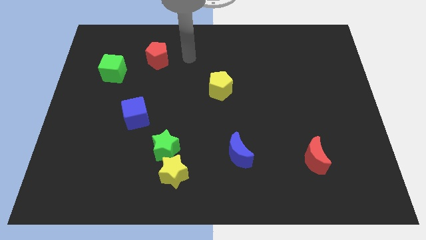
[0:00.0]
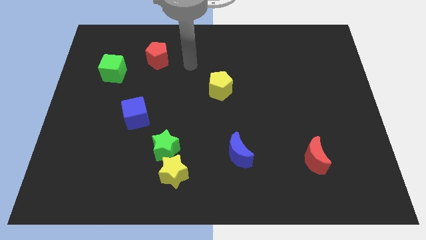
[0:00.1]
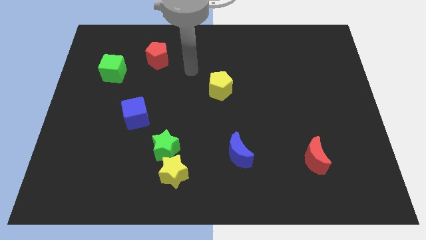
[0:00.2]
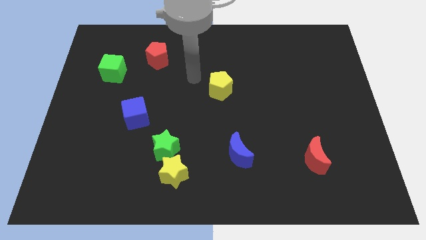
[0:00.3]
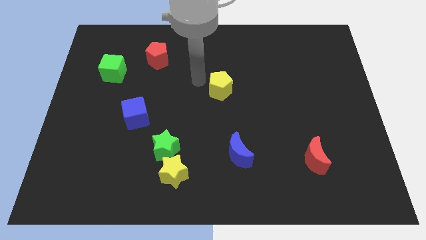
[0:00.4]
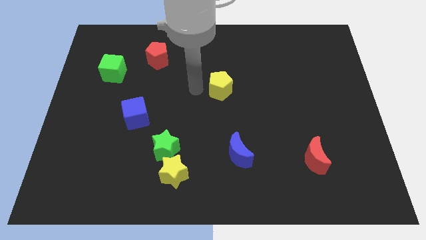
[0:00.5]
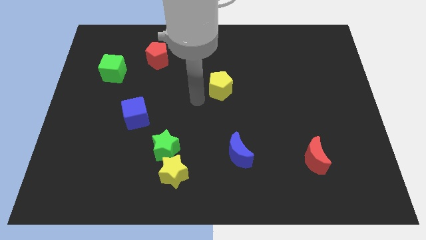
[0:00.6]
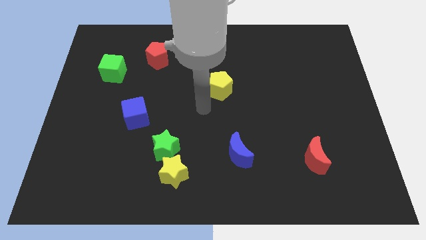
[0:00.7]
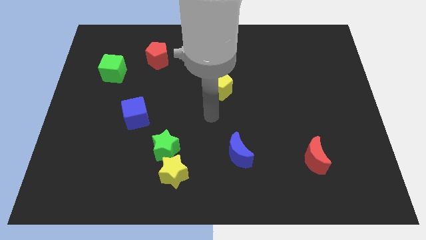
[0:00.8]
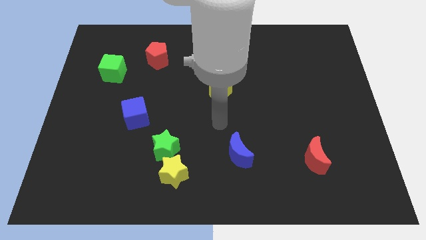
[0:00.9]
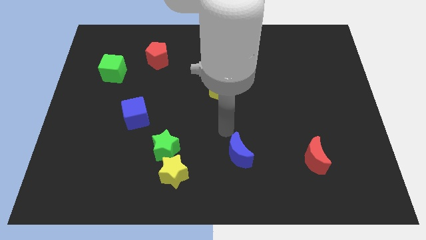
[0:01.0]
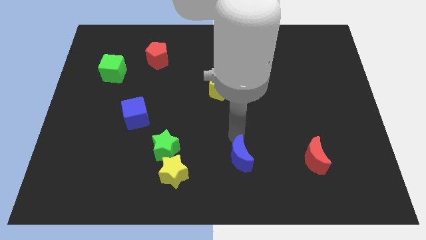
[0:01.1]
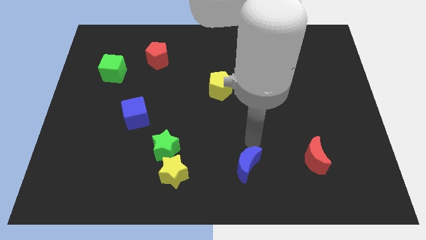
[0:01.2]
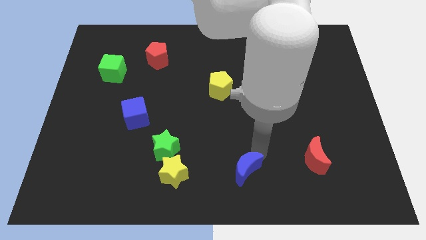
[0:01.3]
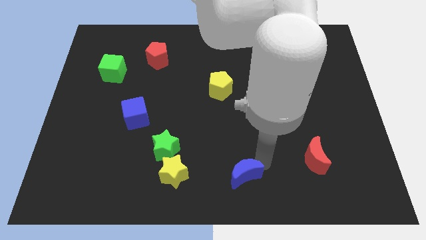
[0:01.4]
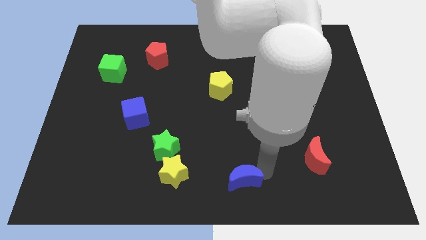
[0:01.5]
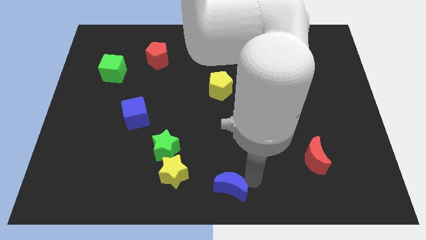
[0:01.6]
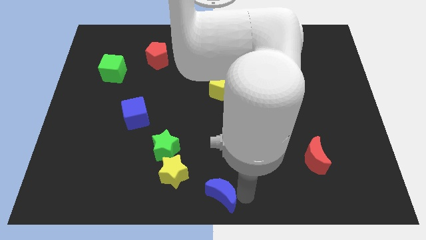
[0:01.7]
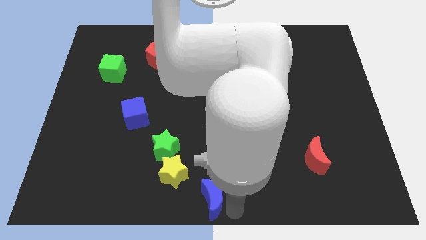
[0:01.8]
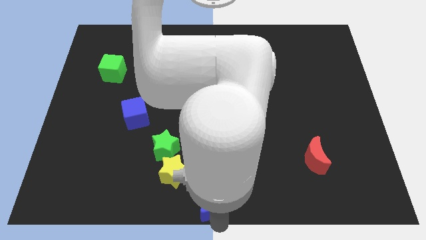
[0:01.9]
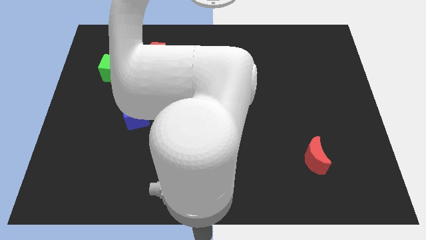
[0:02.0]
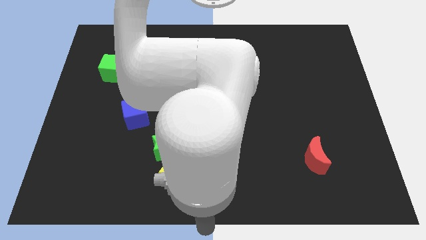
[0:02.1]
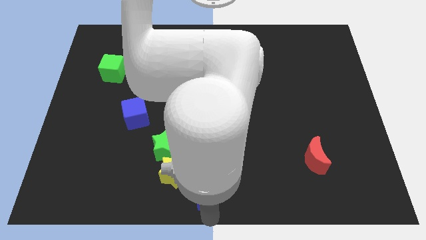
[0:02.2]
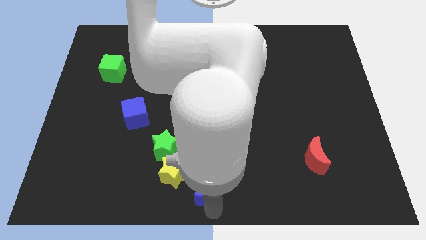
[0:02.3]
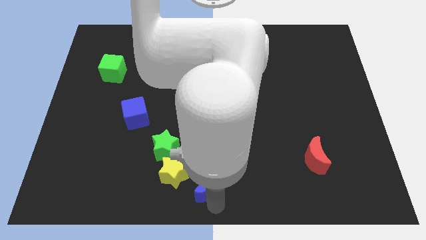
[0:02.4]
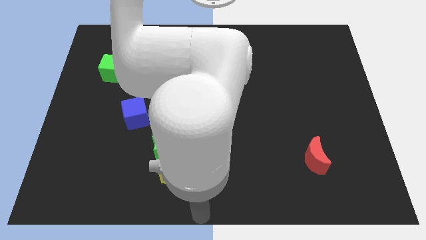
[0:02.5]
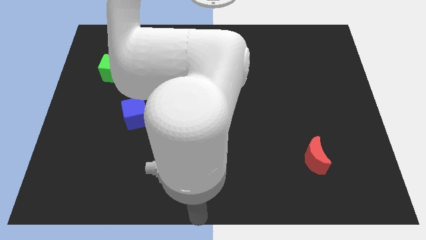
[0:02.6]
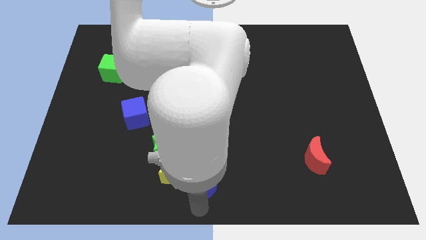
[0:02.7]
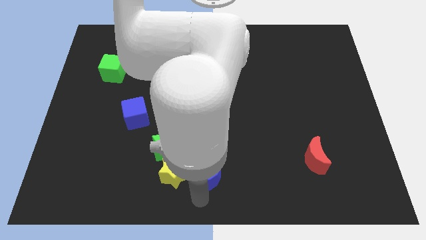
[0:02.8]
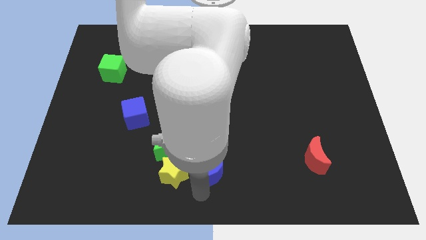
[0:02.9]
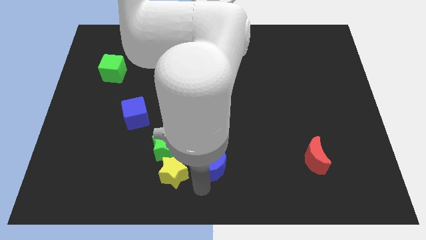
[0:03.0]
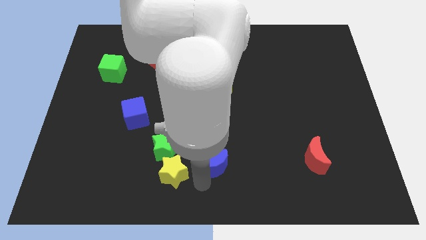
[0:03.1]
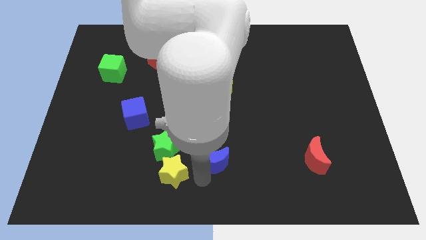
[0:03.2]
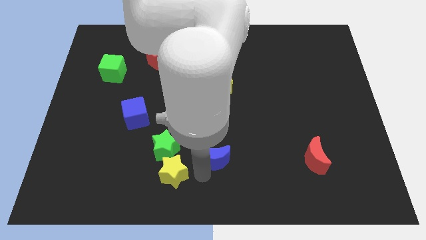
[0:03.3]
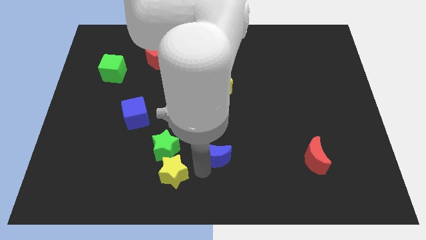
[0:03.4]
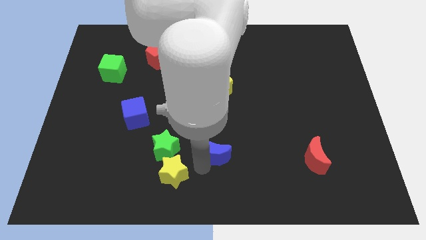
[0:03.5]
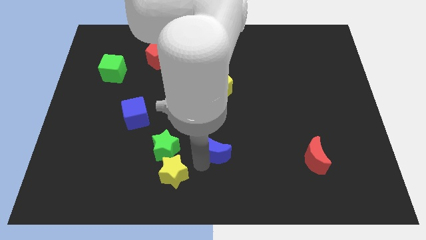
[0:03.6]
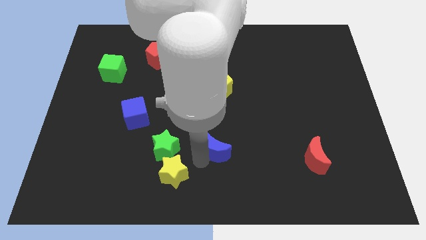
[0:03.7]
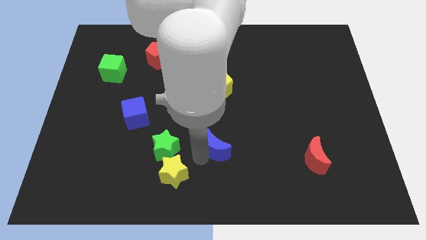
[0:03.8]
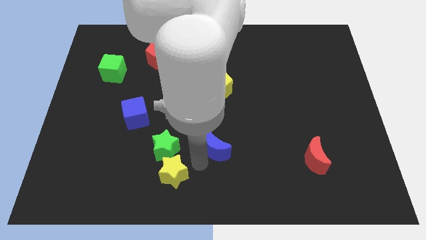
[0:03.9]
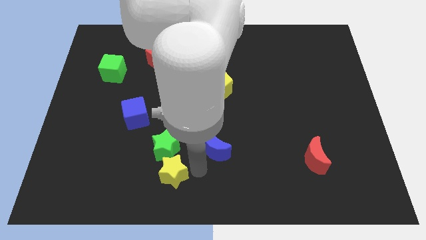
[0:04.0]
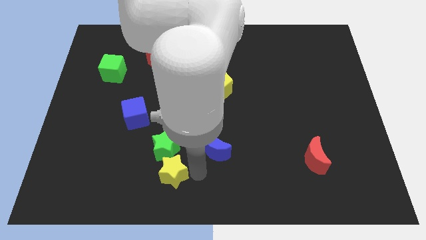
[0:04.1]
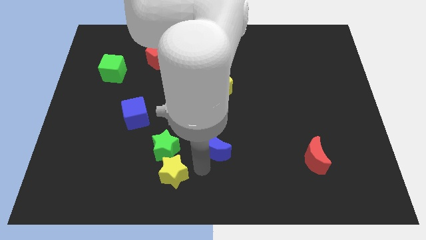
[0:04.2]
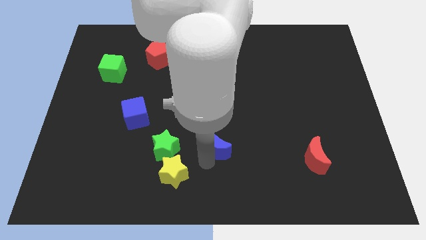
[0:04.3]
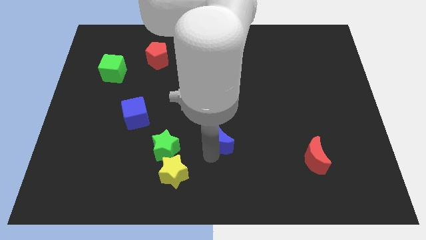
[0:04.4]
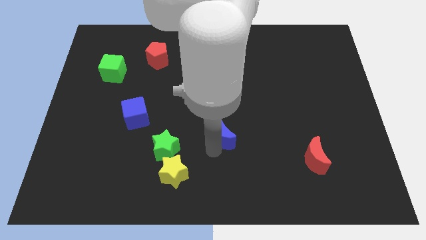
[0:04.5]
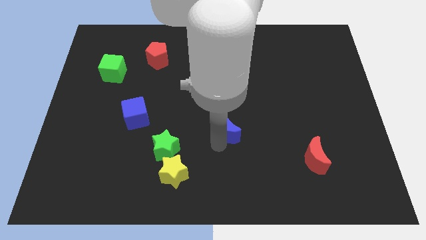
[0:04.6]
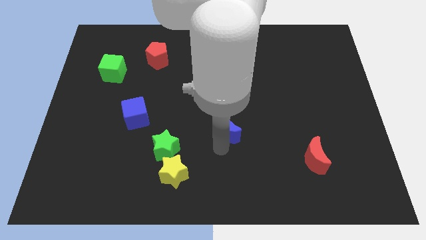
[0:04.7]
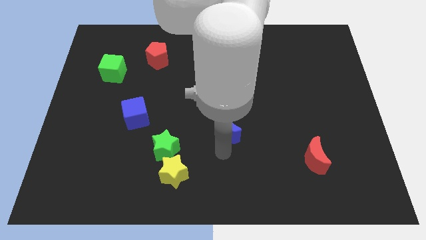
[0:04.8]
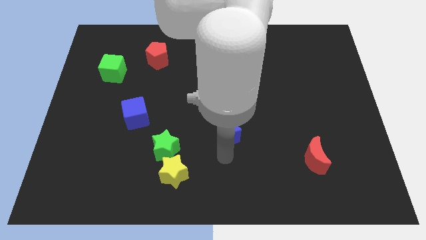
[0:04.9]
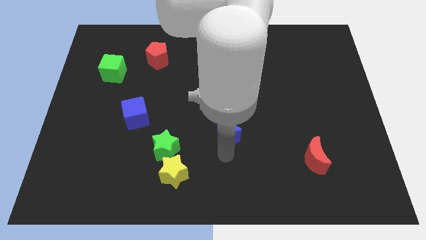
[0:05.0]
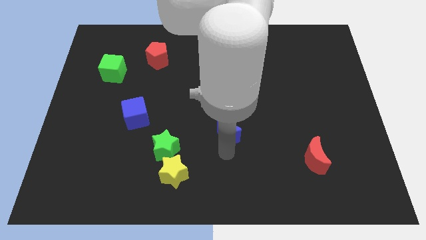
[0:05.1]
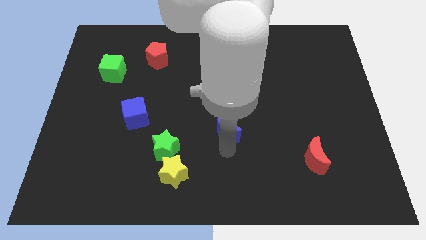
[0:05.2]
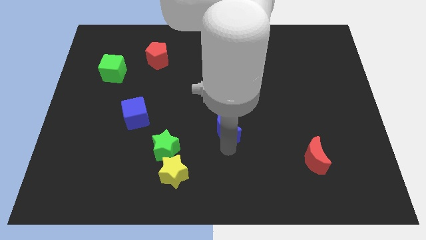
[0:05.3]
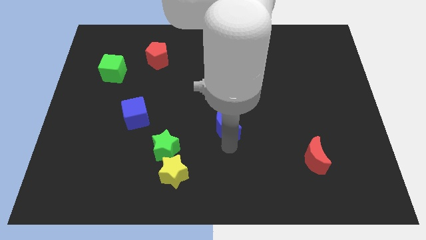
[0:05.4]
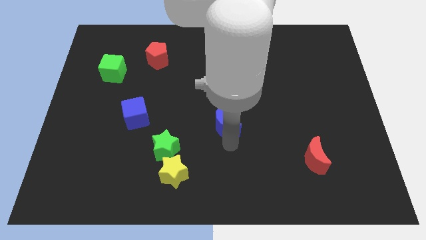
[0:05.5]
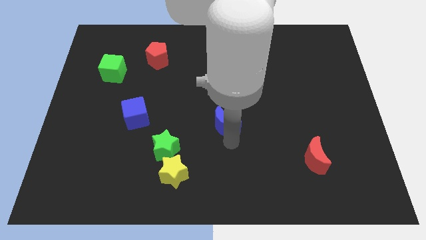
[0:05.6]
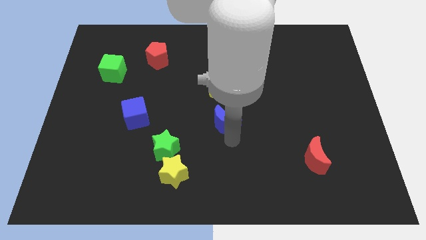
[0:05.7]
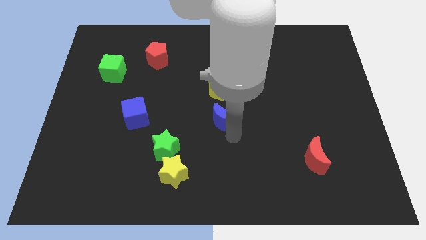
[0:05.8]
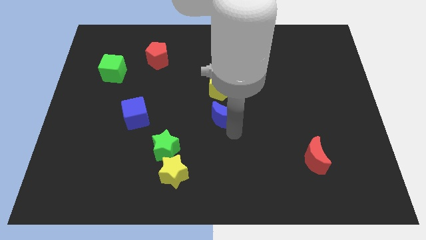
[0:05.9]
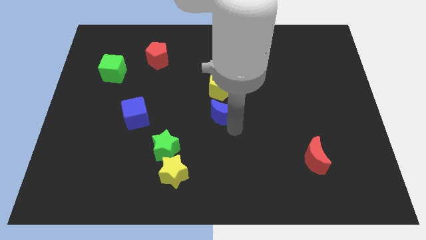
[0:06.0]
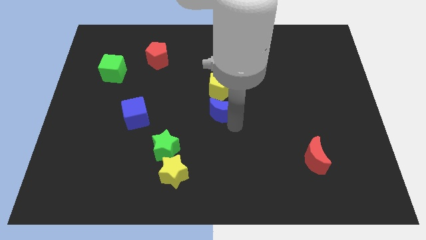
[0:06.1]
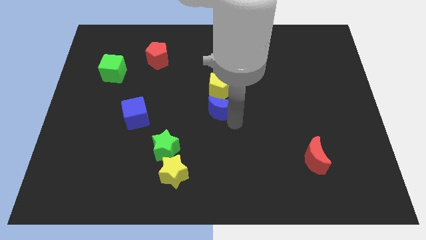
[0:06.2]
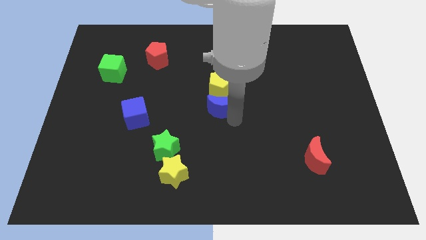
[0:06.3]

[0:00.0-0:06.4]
slide the blue moon towards the yellow pentagon

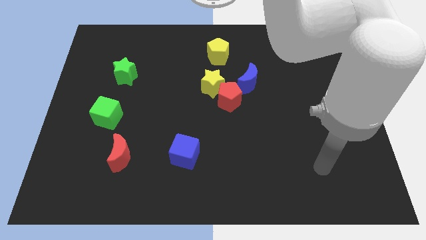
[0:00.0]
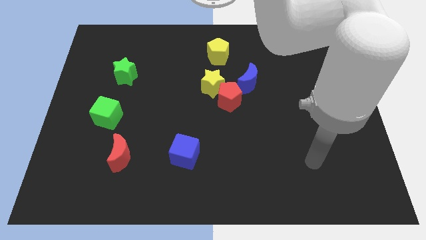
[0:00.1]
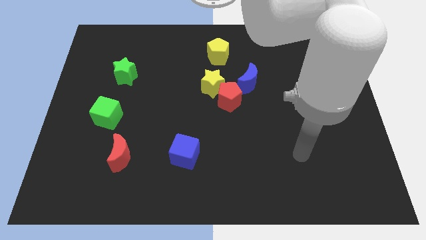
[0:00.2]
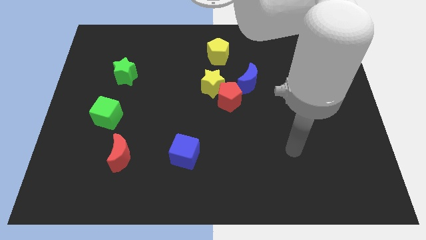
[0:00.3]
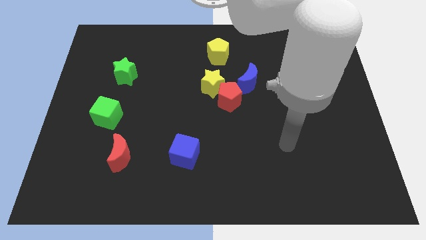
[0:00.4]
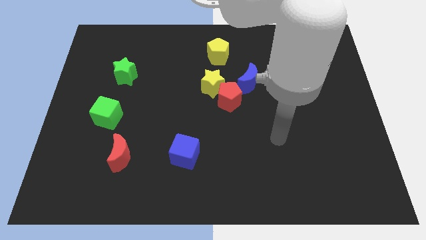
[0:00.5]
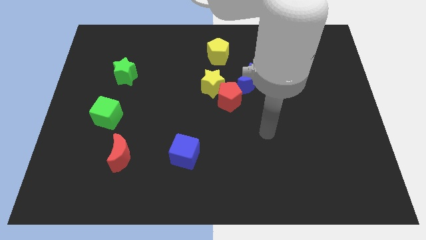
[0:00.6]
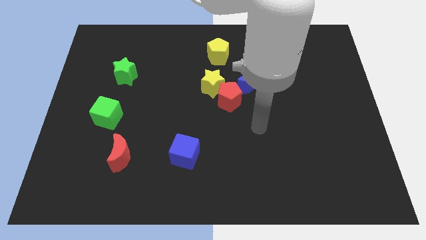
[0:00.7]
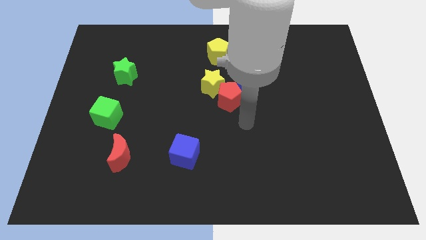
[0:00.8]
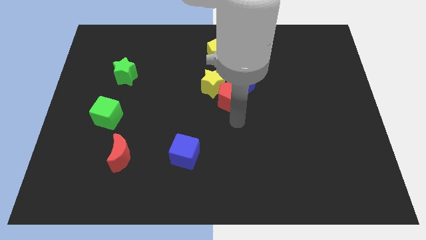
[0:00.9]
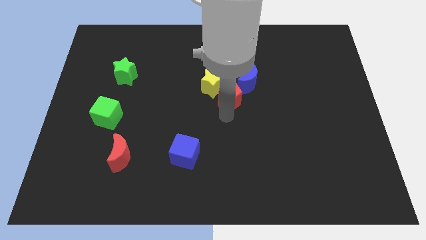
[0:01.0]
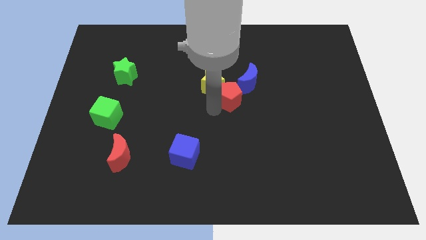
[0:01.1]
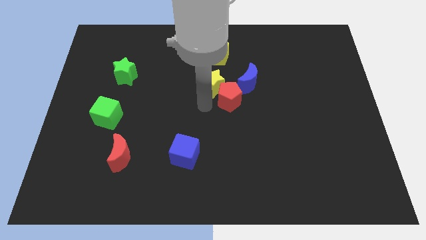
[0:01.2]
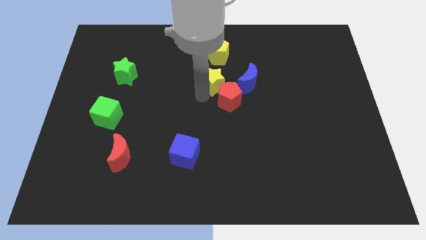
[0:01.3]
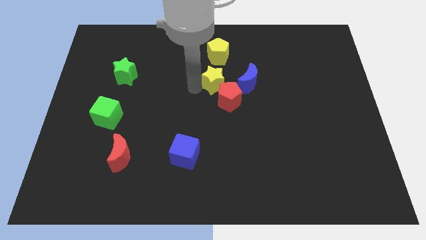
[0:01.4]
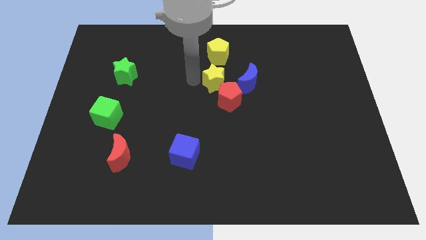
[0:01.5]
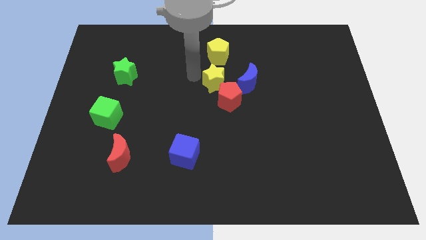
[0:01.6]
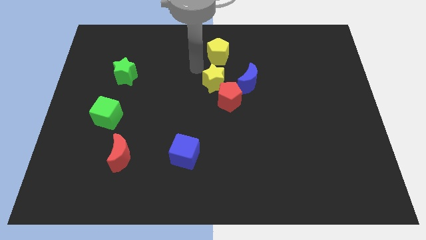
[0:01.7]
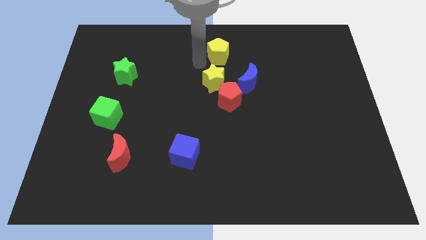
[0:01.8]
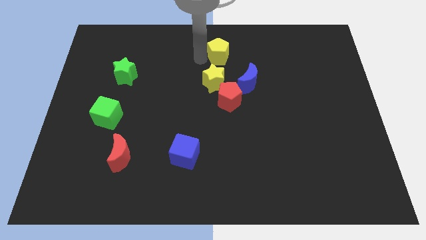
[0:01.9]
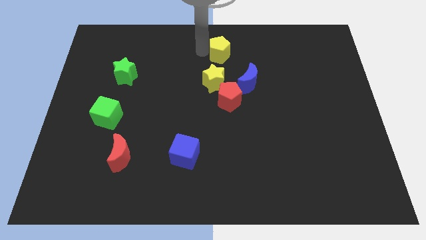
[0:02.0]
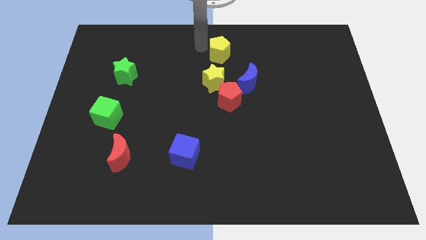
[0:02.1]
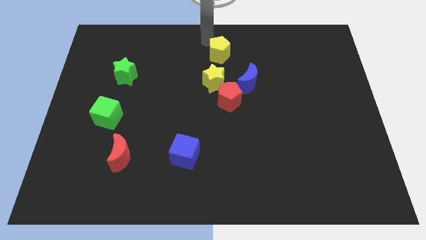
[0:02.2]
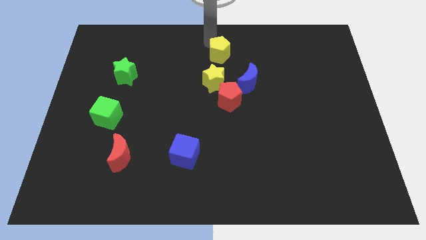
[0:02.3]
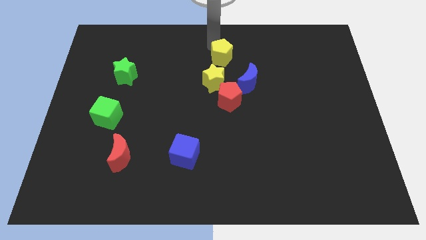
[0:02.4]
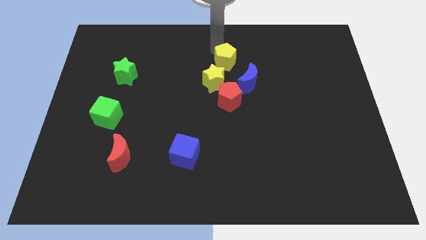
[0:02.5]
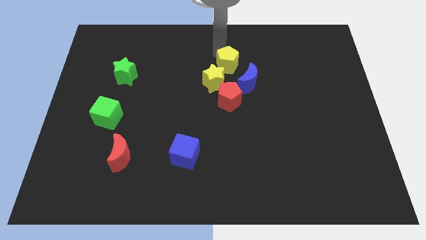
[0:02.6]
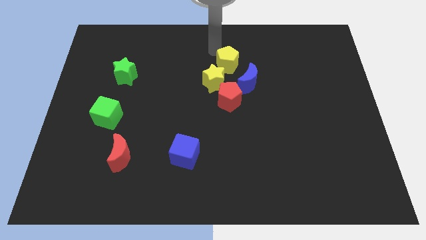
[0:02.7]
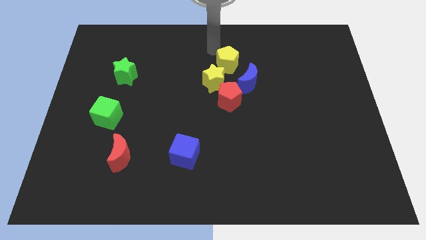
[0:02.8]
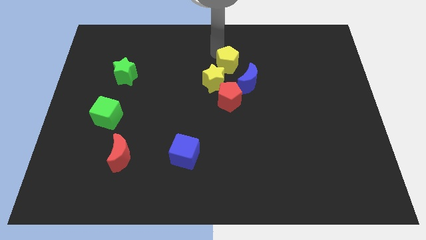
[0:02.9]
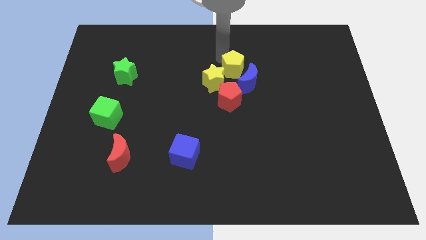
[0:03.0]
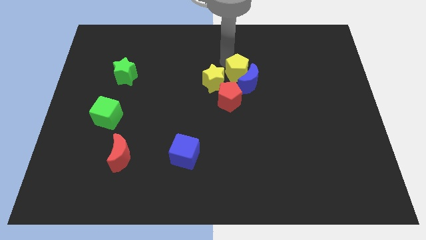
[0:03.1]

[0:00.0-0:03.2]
slide the yellow pentagon to the blue moon
